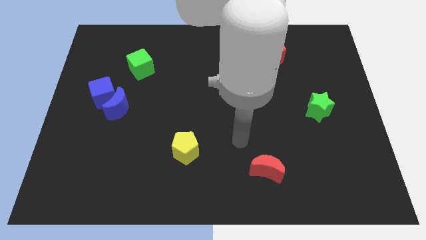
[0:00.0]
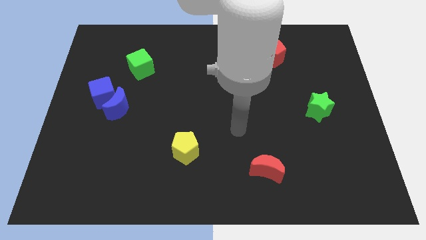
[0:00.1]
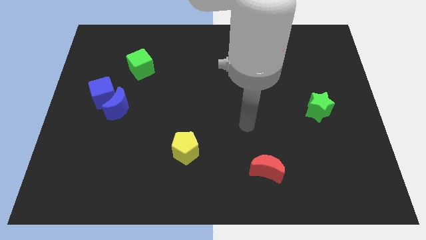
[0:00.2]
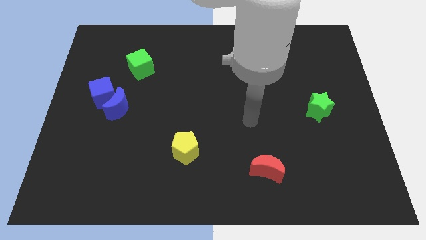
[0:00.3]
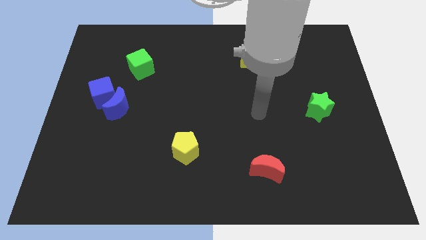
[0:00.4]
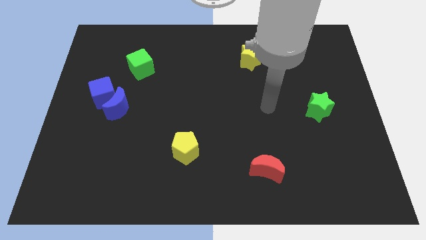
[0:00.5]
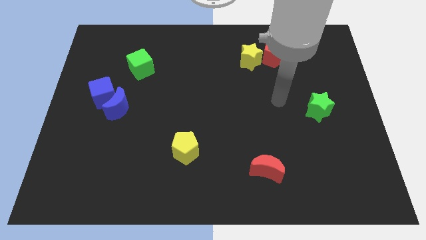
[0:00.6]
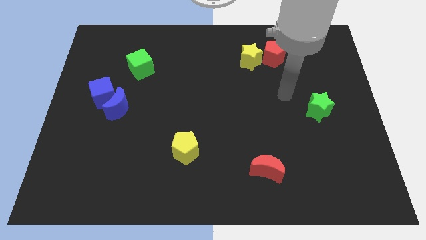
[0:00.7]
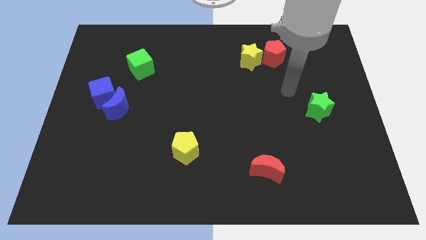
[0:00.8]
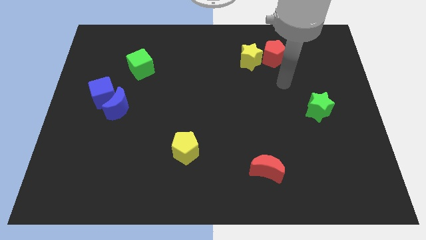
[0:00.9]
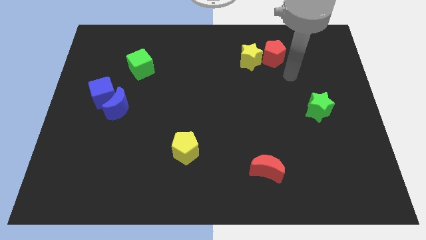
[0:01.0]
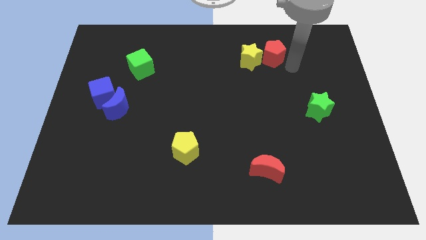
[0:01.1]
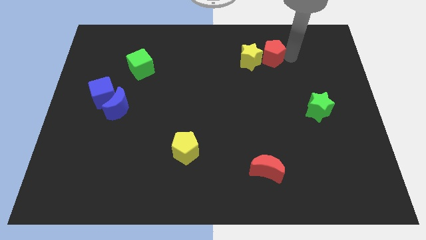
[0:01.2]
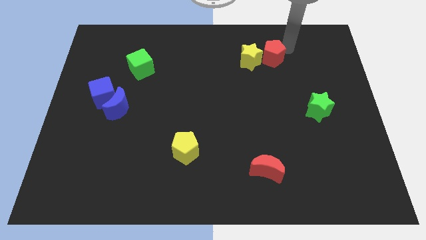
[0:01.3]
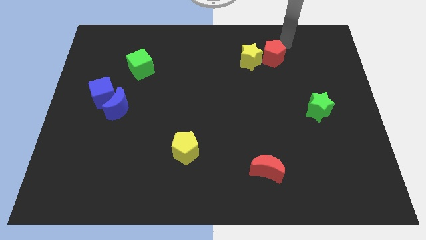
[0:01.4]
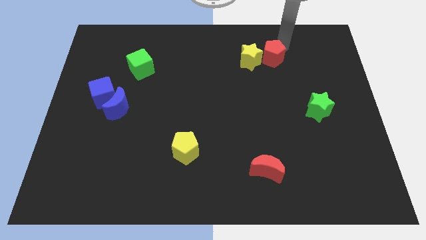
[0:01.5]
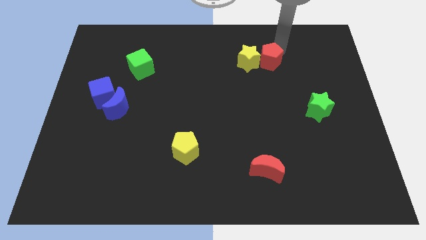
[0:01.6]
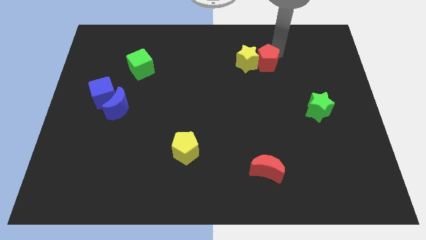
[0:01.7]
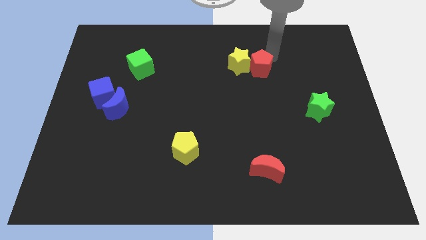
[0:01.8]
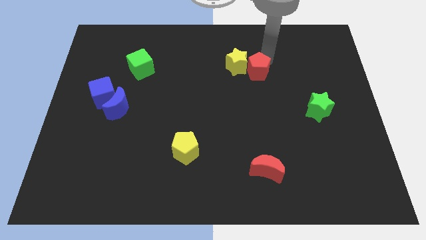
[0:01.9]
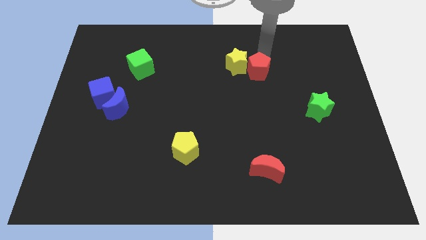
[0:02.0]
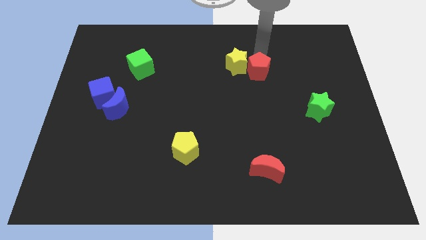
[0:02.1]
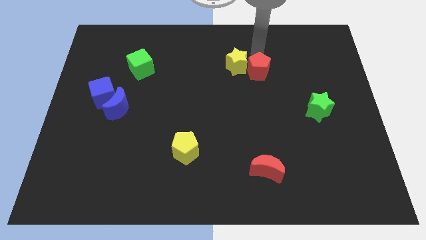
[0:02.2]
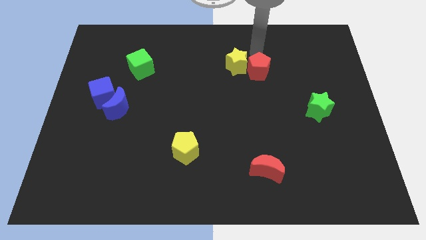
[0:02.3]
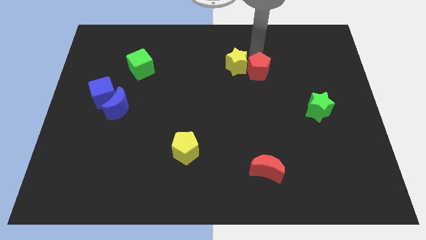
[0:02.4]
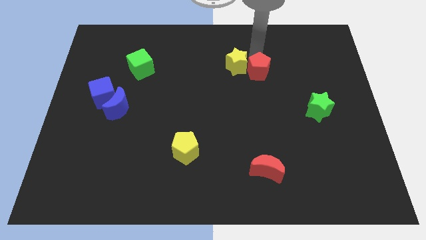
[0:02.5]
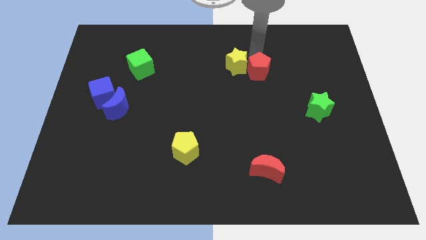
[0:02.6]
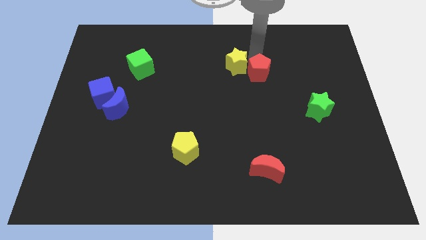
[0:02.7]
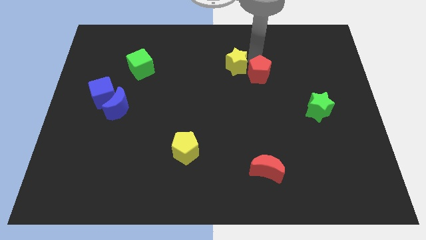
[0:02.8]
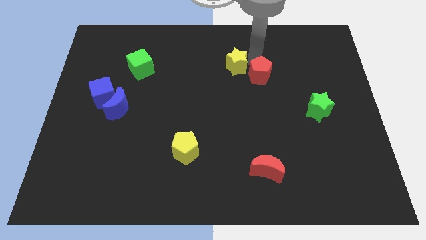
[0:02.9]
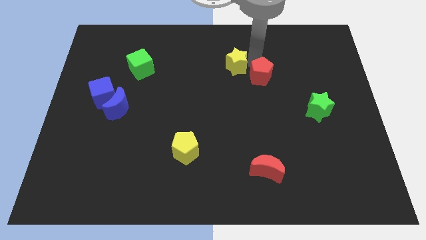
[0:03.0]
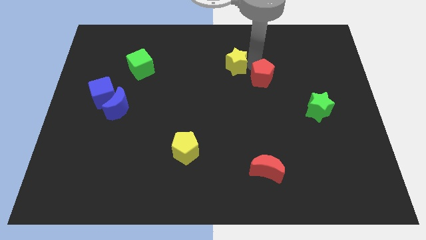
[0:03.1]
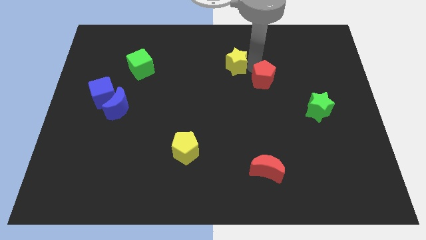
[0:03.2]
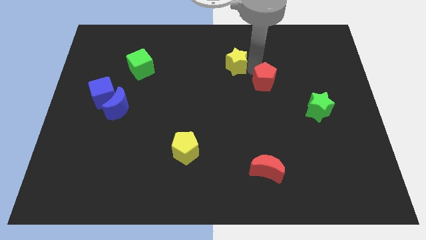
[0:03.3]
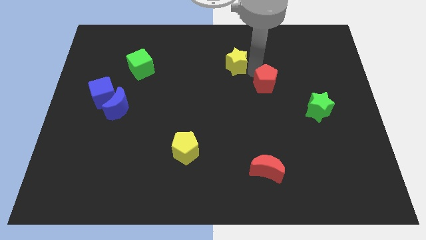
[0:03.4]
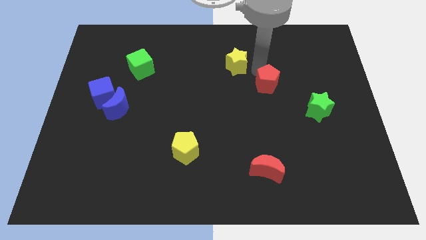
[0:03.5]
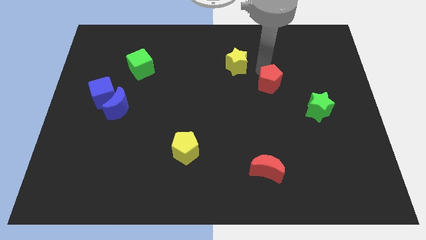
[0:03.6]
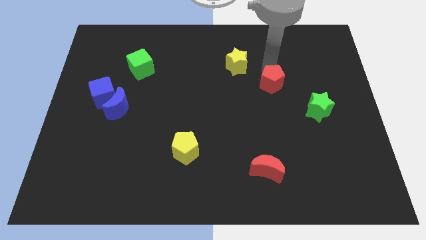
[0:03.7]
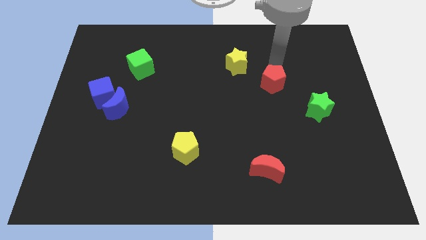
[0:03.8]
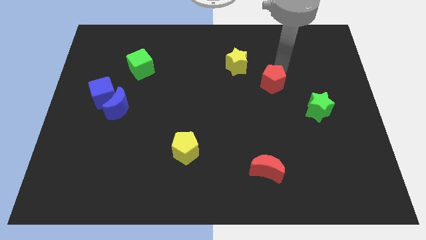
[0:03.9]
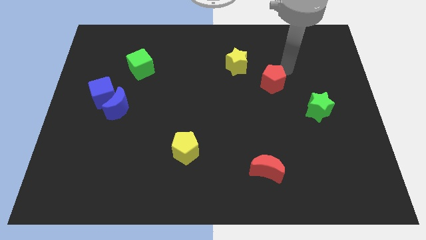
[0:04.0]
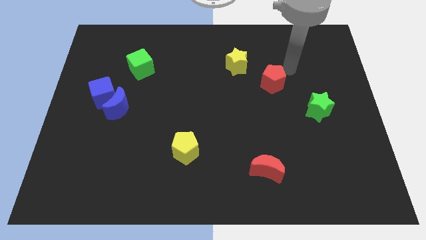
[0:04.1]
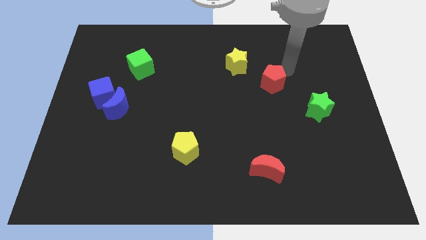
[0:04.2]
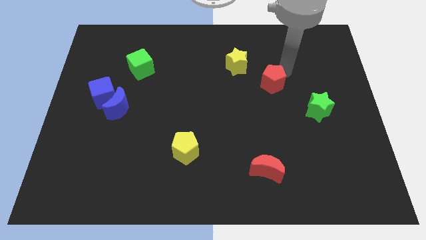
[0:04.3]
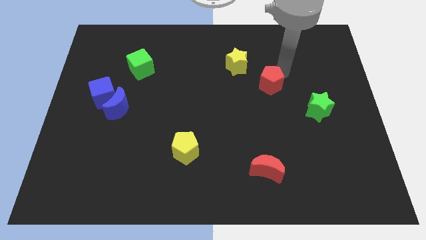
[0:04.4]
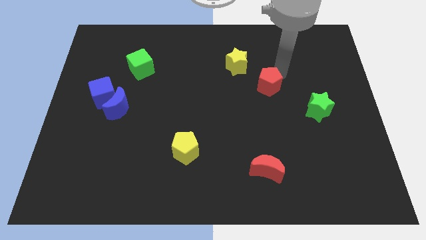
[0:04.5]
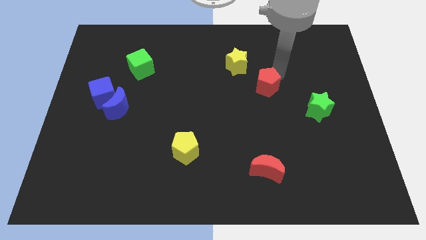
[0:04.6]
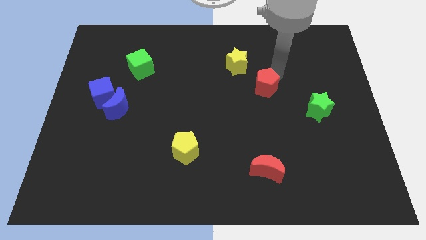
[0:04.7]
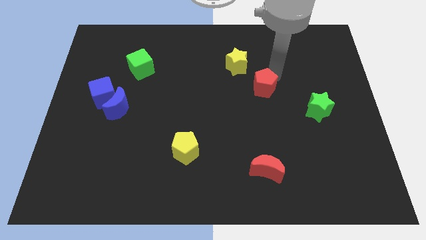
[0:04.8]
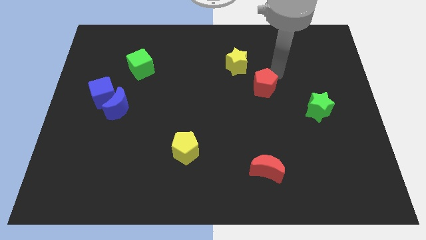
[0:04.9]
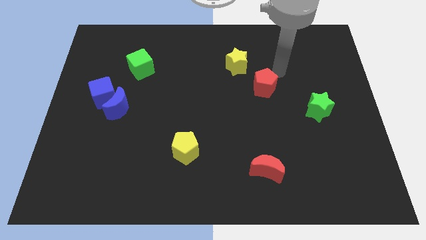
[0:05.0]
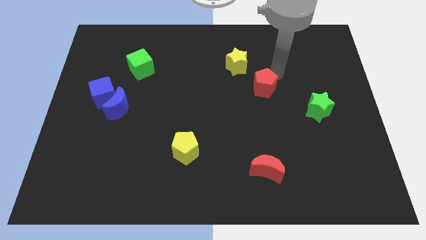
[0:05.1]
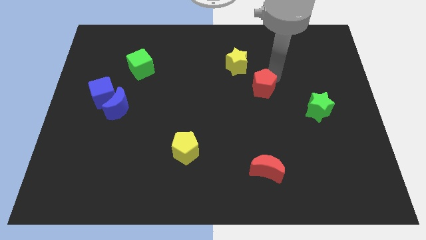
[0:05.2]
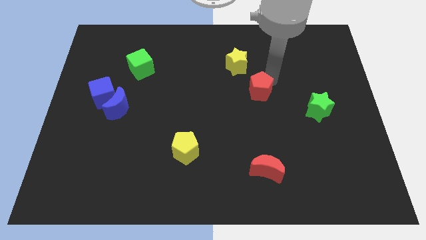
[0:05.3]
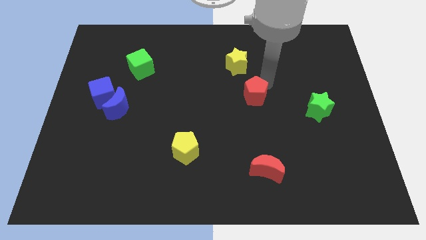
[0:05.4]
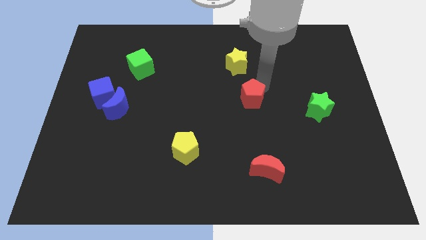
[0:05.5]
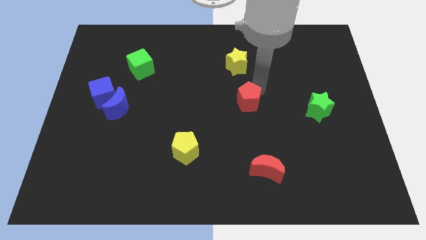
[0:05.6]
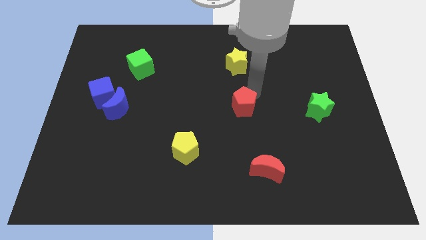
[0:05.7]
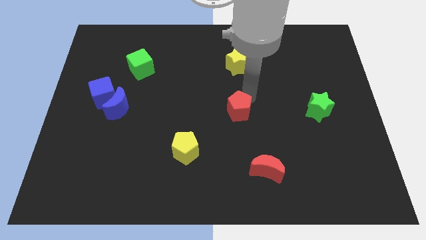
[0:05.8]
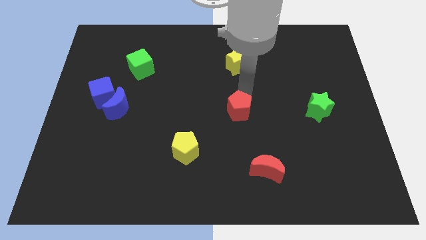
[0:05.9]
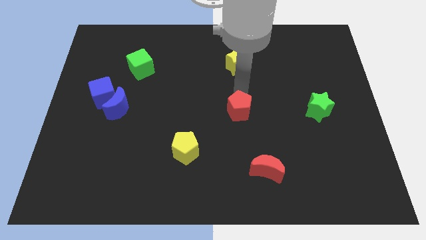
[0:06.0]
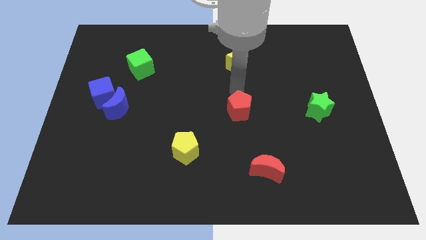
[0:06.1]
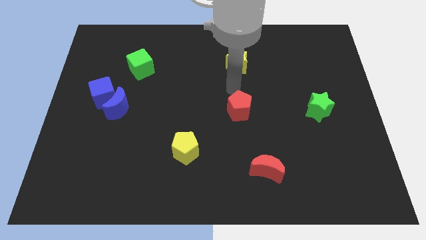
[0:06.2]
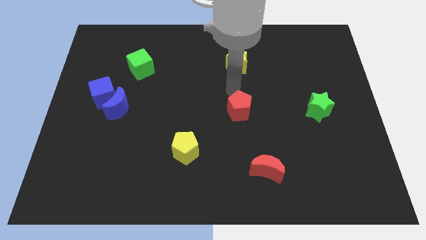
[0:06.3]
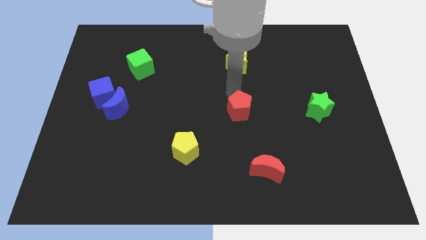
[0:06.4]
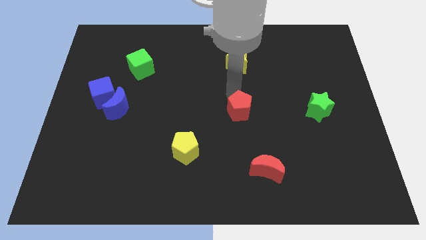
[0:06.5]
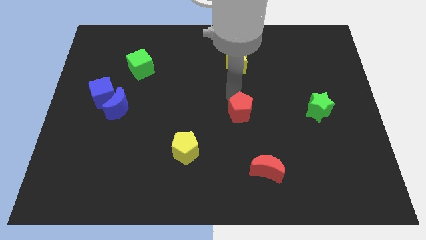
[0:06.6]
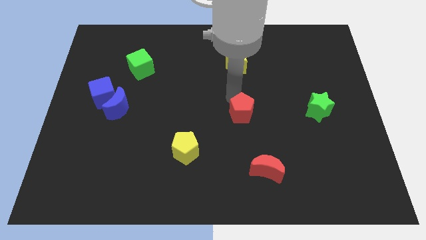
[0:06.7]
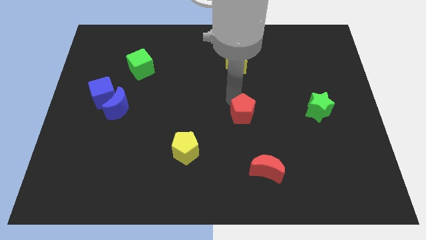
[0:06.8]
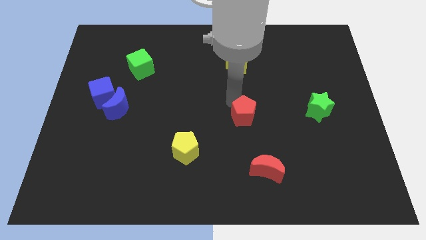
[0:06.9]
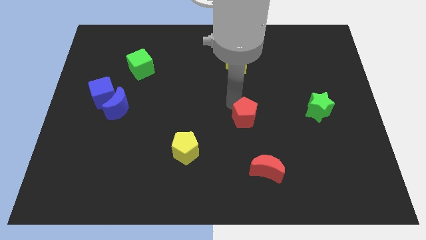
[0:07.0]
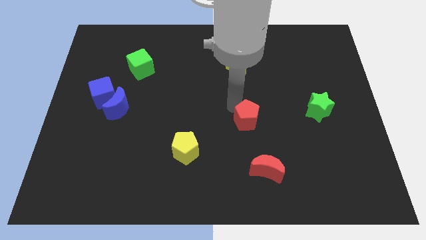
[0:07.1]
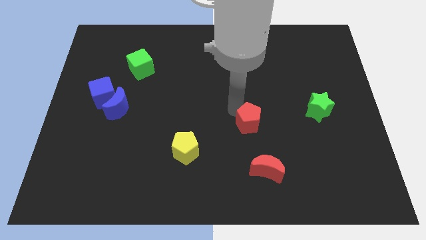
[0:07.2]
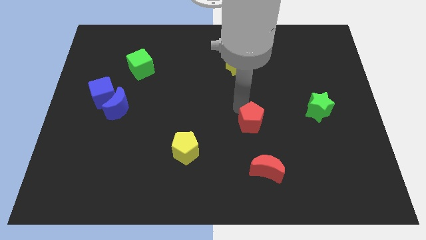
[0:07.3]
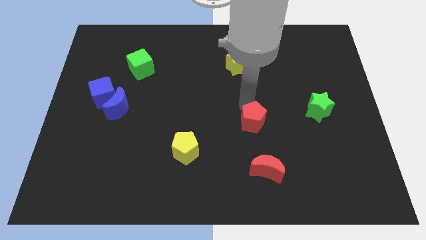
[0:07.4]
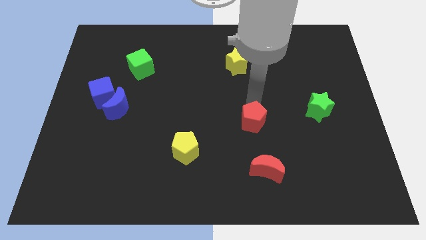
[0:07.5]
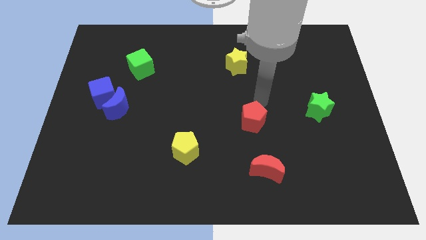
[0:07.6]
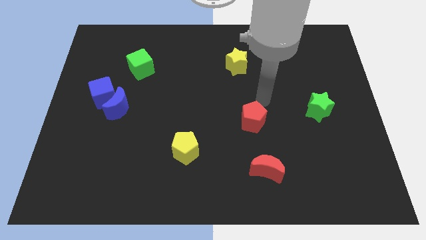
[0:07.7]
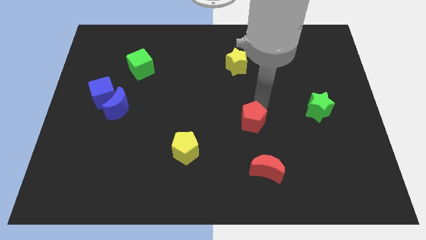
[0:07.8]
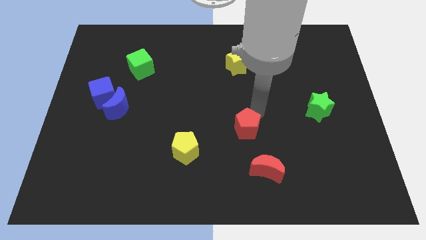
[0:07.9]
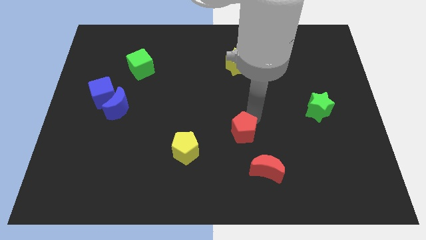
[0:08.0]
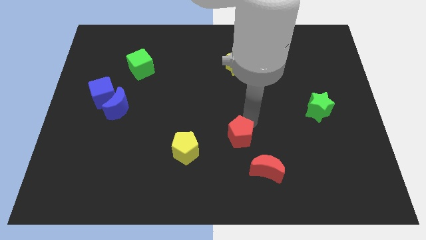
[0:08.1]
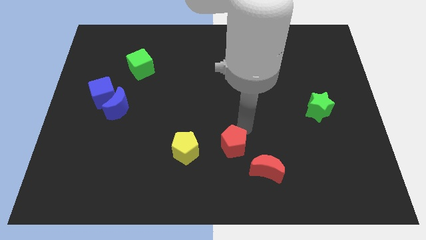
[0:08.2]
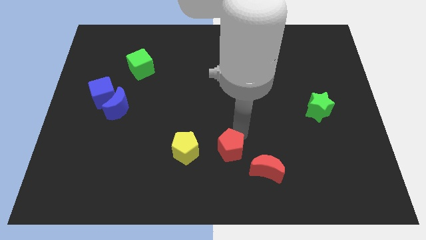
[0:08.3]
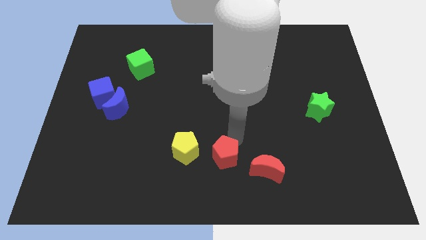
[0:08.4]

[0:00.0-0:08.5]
slide the red pentagon to the bottom
